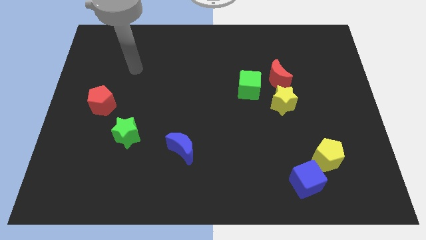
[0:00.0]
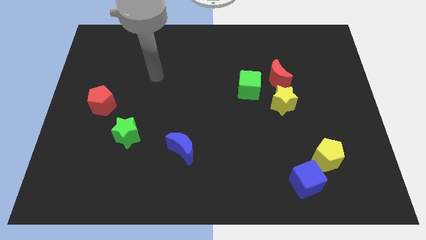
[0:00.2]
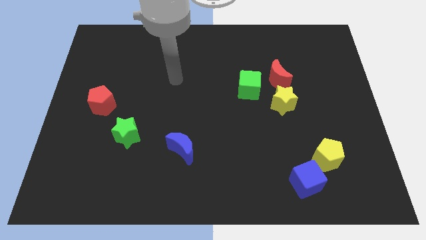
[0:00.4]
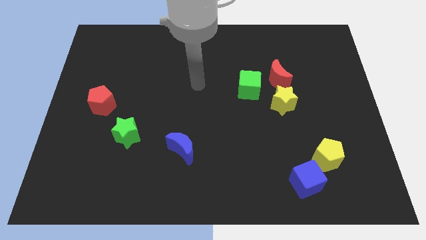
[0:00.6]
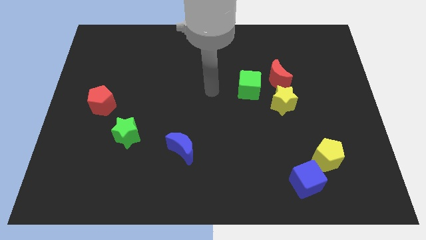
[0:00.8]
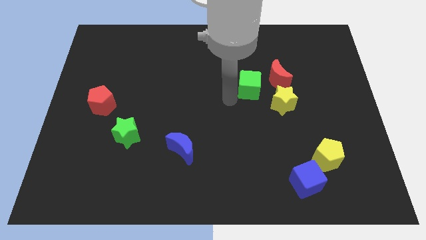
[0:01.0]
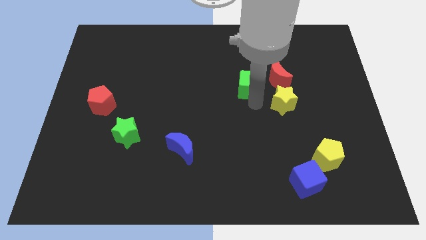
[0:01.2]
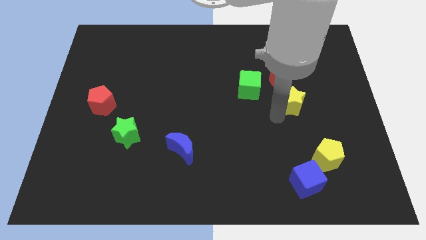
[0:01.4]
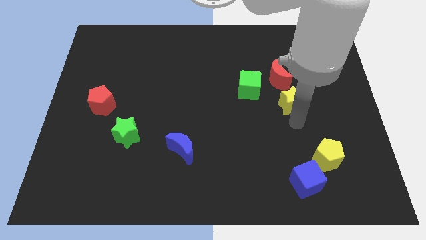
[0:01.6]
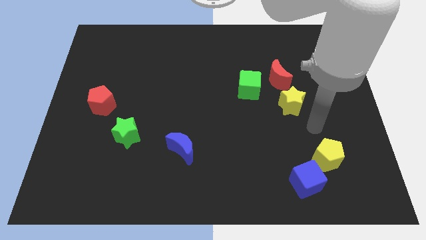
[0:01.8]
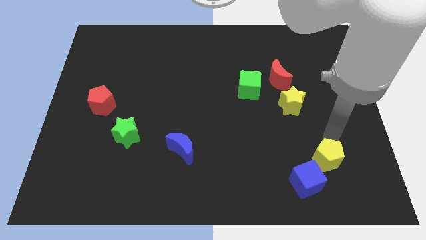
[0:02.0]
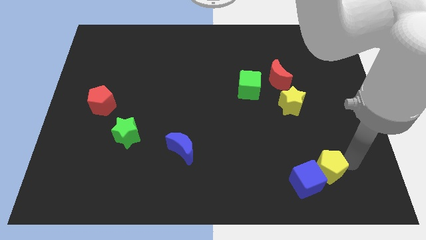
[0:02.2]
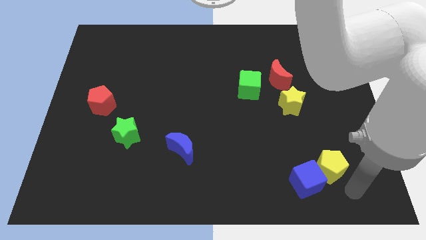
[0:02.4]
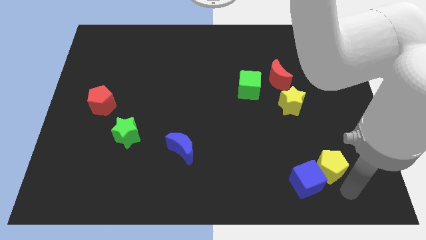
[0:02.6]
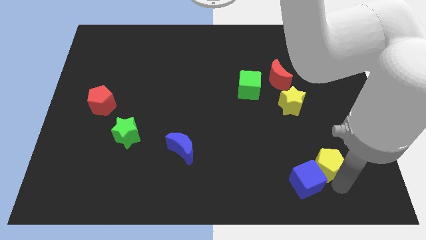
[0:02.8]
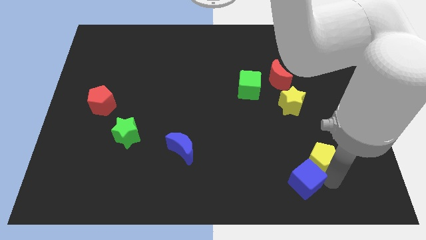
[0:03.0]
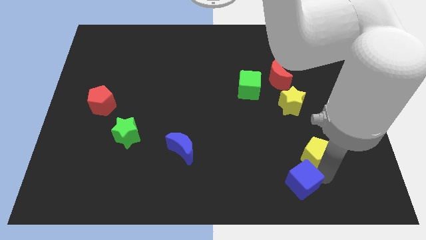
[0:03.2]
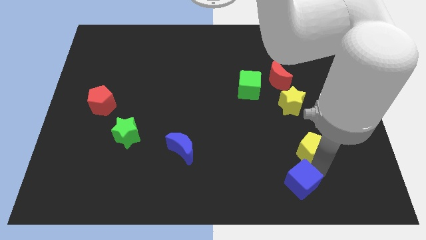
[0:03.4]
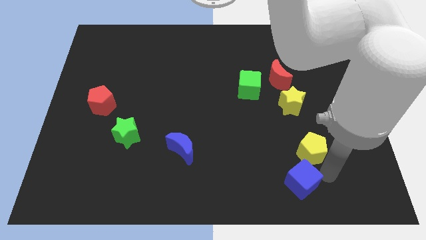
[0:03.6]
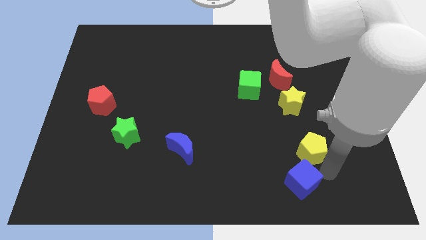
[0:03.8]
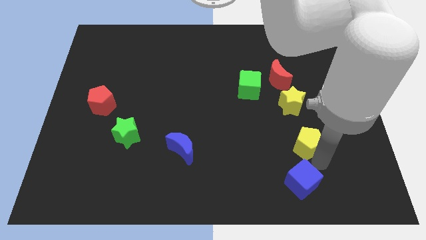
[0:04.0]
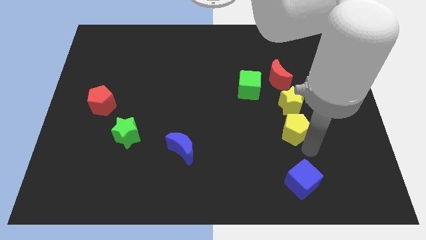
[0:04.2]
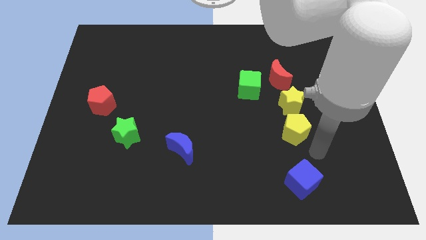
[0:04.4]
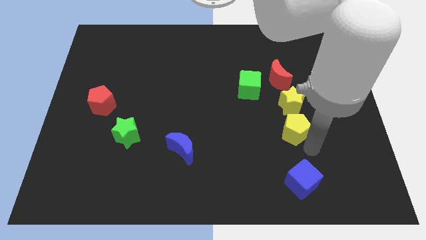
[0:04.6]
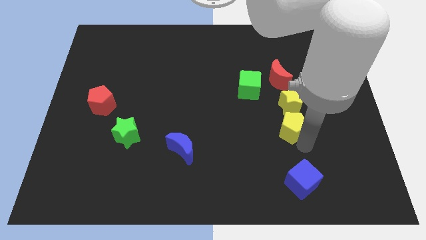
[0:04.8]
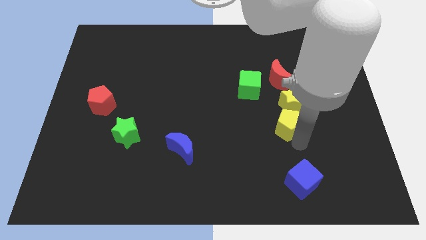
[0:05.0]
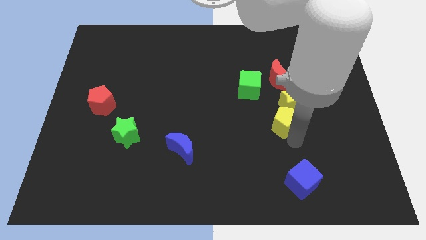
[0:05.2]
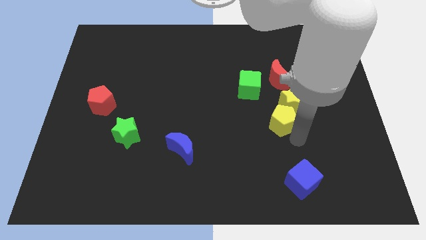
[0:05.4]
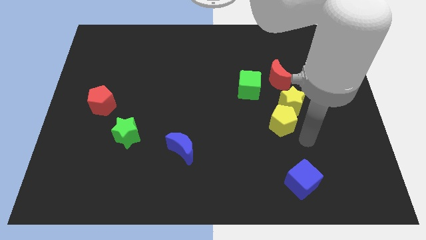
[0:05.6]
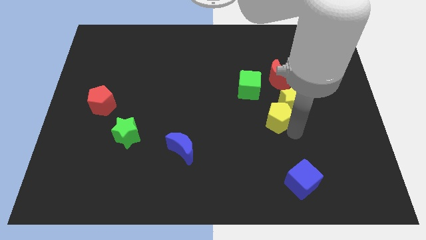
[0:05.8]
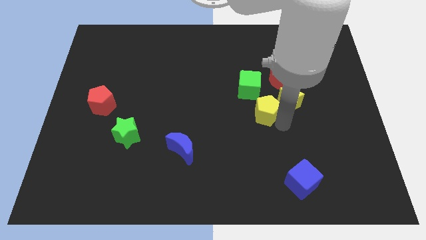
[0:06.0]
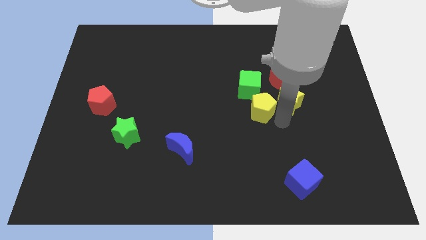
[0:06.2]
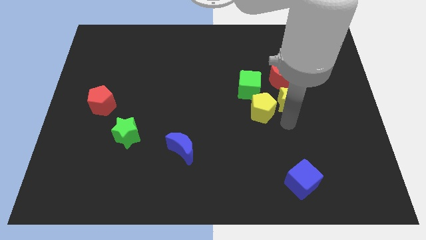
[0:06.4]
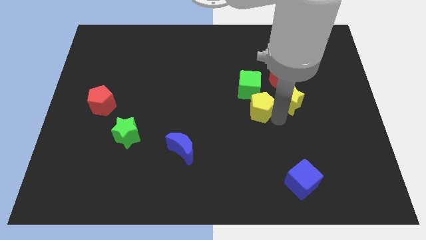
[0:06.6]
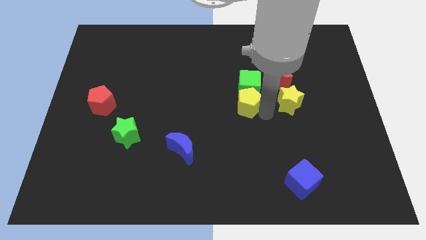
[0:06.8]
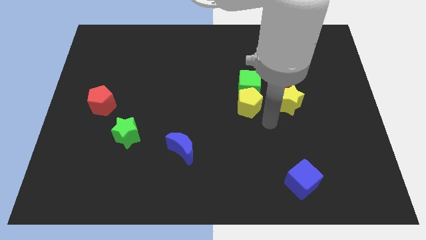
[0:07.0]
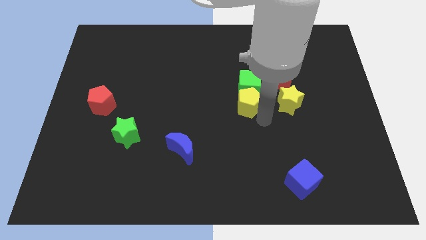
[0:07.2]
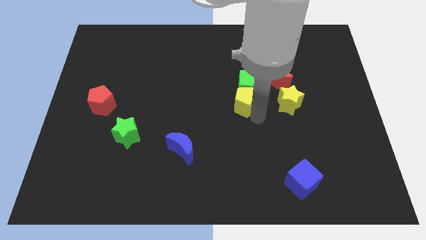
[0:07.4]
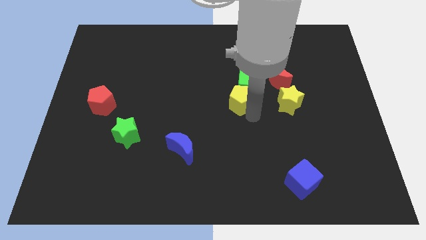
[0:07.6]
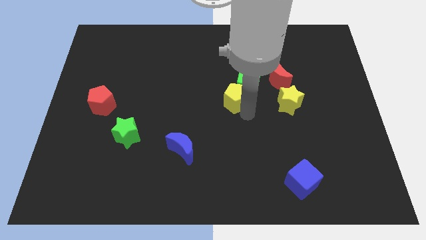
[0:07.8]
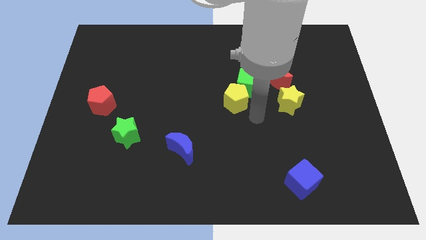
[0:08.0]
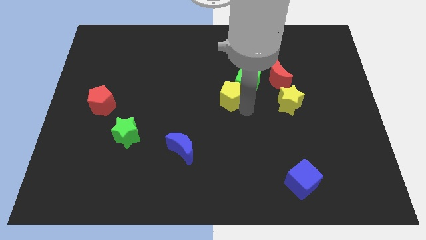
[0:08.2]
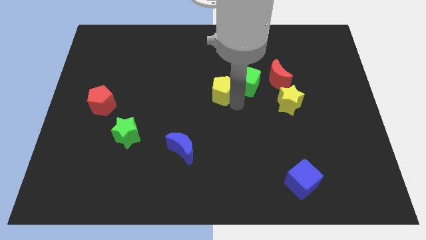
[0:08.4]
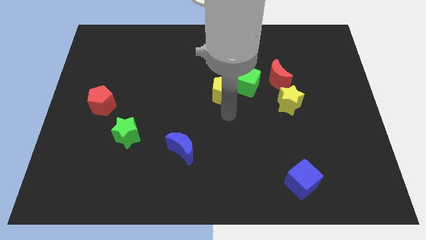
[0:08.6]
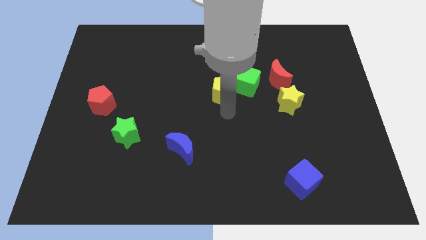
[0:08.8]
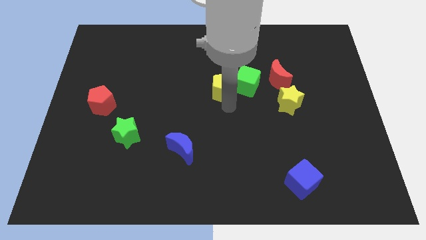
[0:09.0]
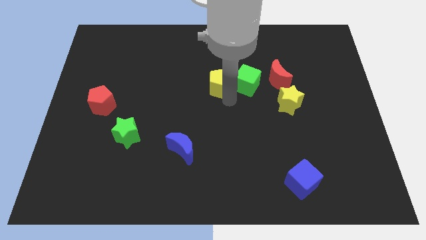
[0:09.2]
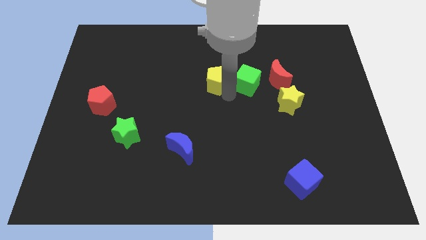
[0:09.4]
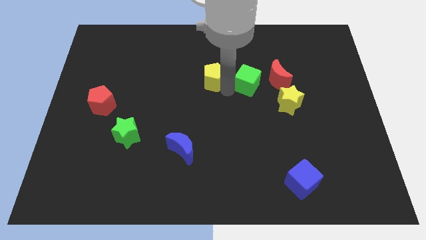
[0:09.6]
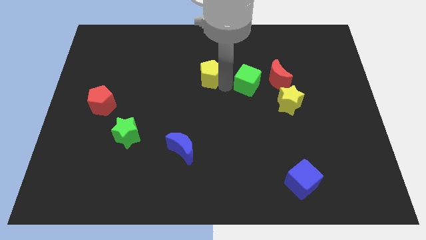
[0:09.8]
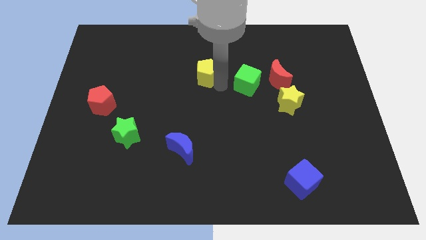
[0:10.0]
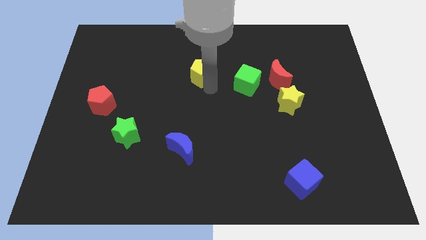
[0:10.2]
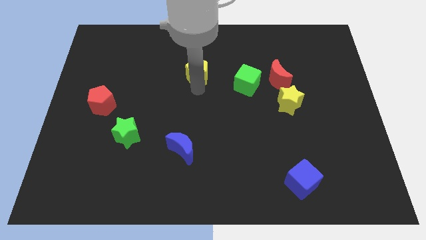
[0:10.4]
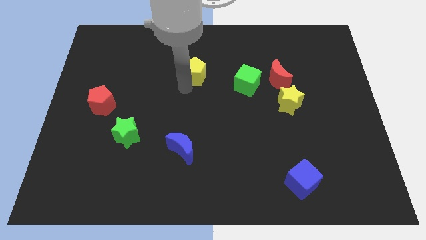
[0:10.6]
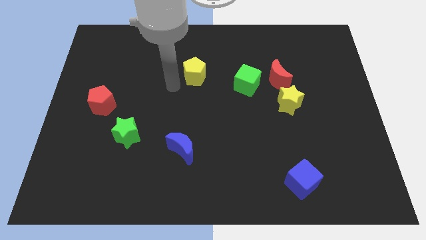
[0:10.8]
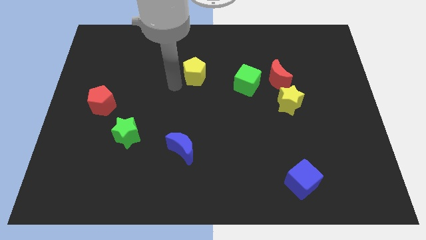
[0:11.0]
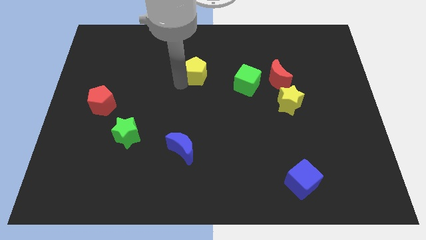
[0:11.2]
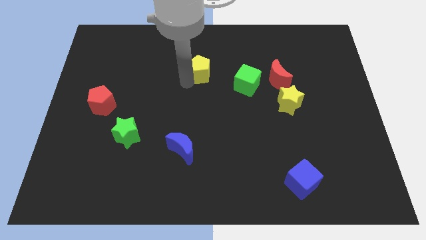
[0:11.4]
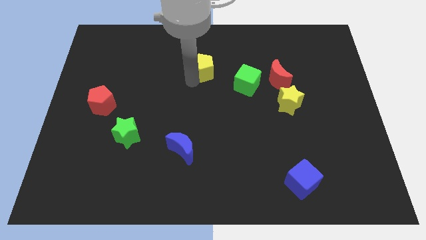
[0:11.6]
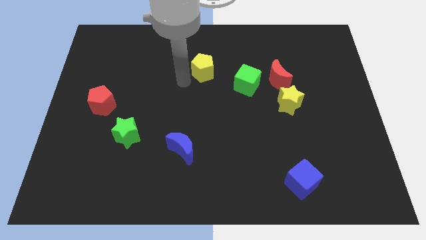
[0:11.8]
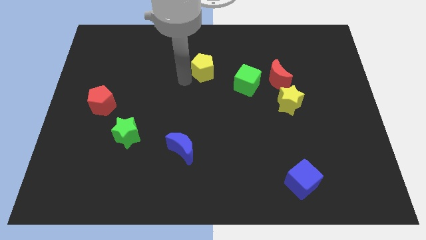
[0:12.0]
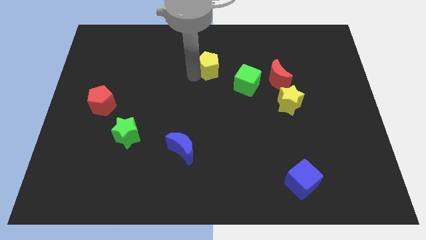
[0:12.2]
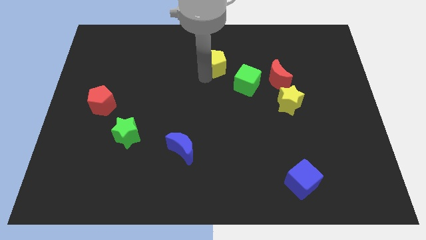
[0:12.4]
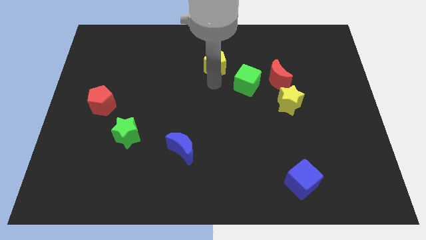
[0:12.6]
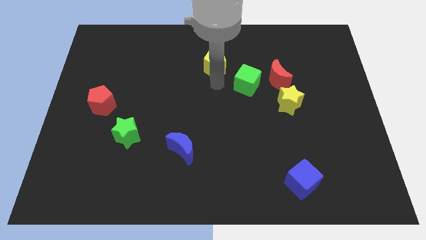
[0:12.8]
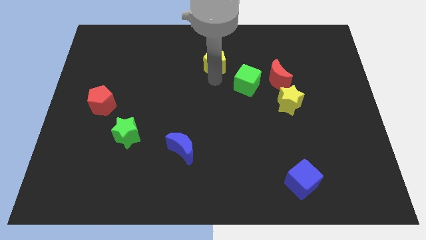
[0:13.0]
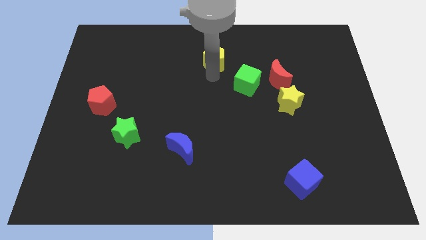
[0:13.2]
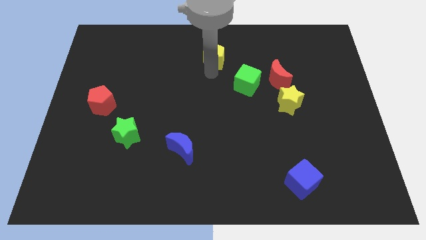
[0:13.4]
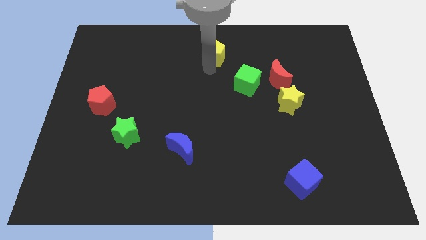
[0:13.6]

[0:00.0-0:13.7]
put the yellow pentagon to the towards your base
